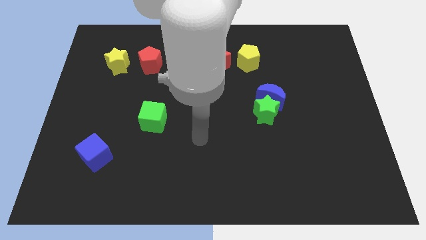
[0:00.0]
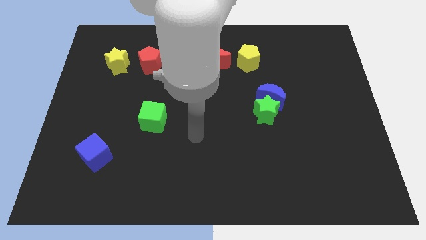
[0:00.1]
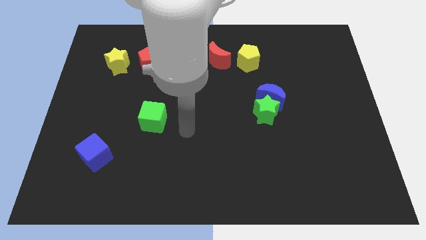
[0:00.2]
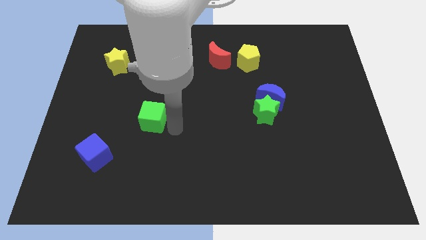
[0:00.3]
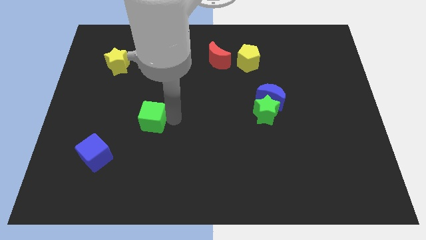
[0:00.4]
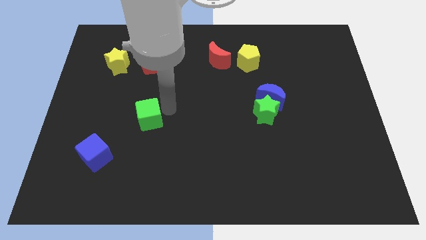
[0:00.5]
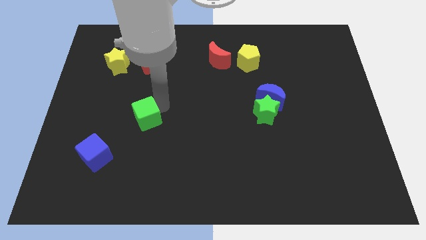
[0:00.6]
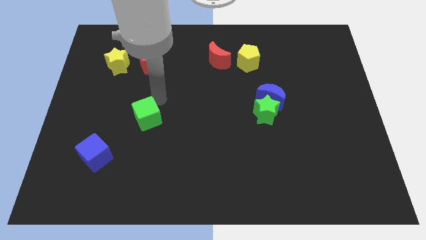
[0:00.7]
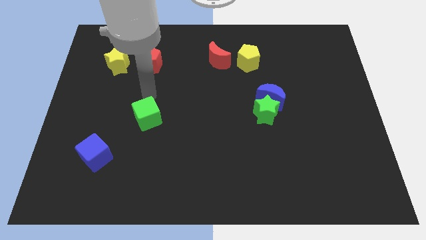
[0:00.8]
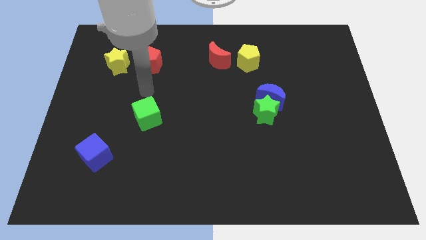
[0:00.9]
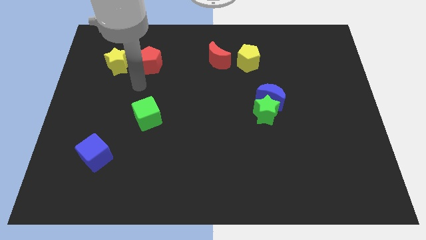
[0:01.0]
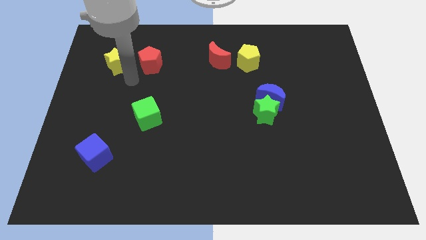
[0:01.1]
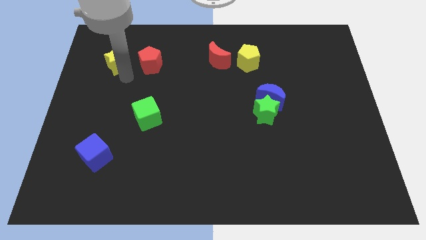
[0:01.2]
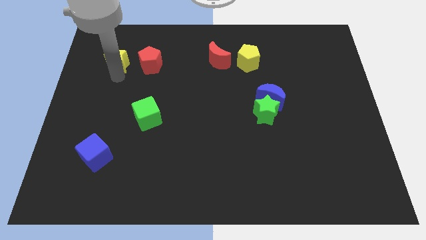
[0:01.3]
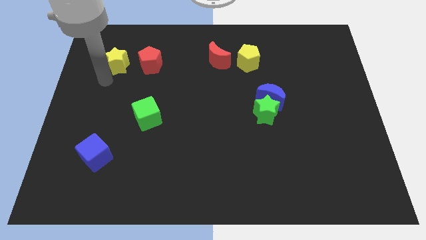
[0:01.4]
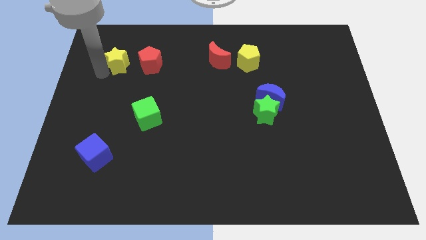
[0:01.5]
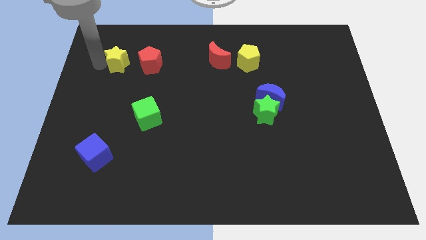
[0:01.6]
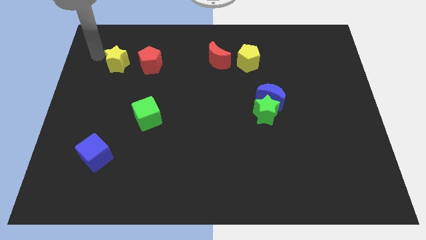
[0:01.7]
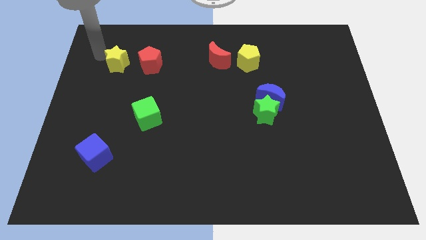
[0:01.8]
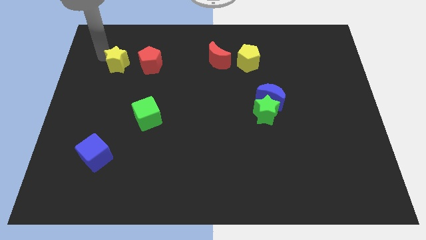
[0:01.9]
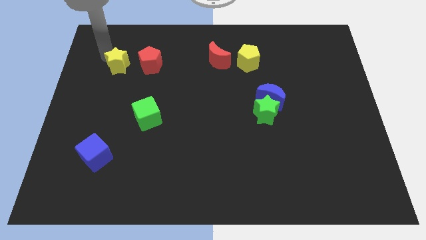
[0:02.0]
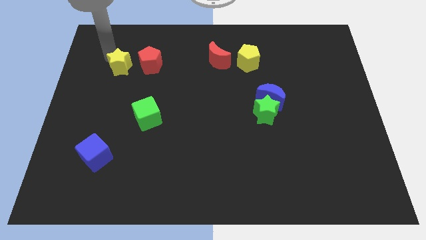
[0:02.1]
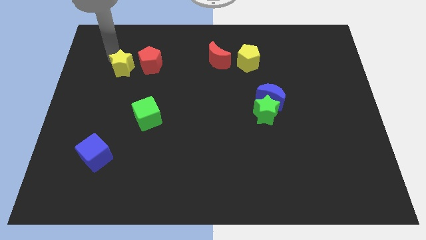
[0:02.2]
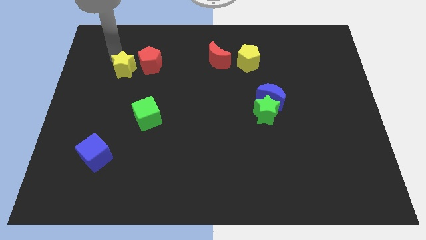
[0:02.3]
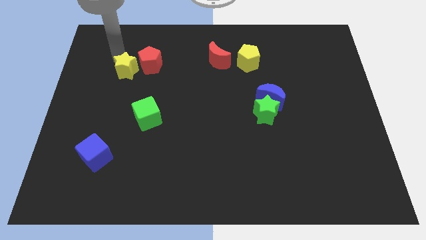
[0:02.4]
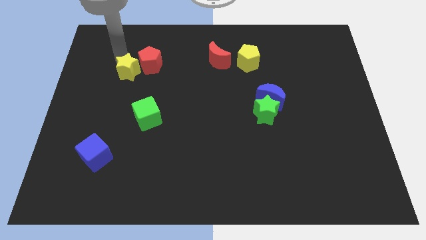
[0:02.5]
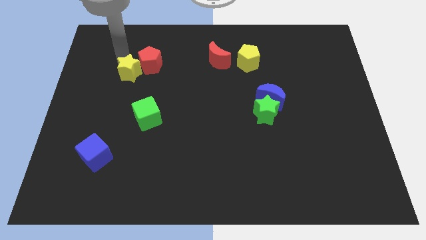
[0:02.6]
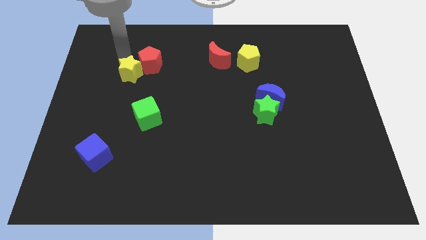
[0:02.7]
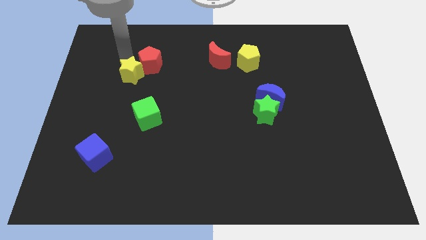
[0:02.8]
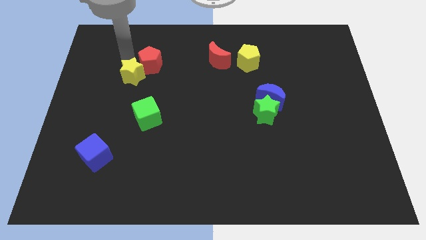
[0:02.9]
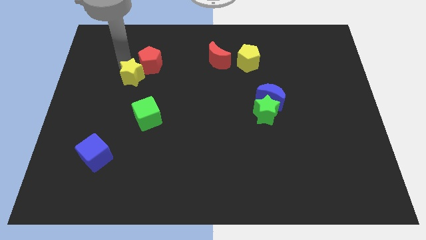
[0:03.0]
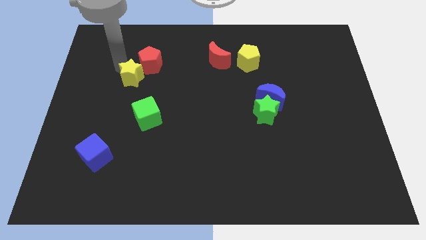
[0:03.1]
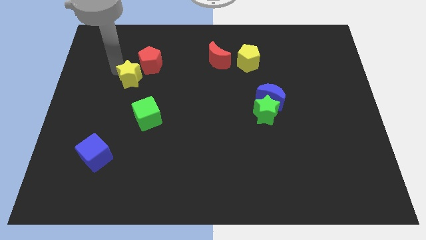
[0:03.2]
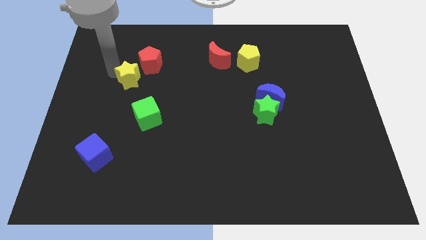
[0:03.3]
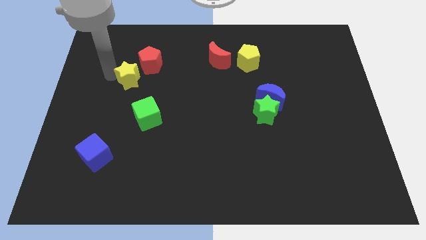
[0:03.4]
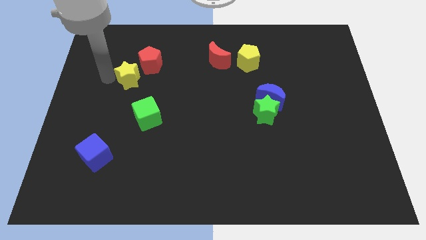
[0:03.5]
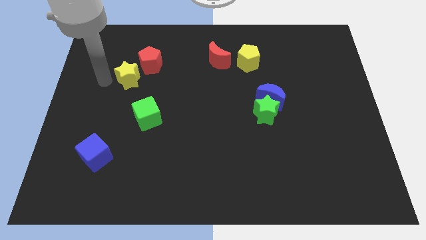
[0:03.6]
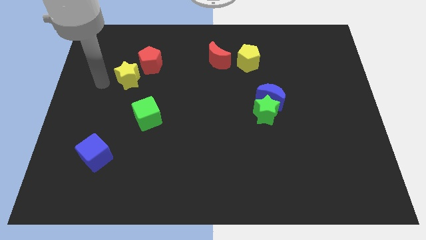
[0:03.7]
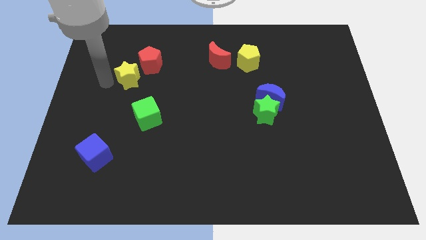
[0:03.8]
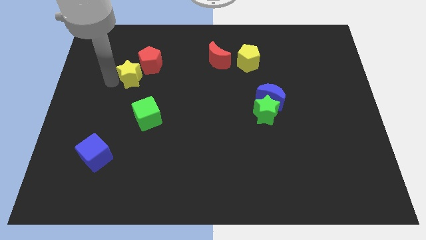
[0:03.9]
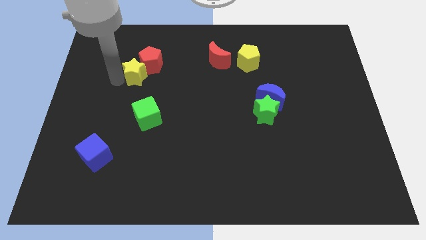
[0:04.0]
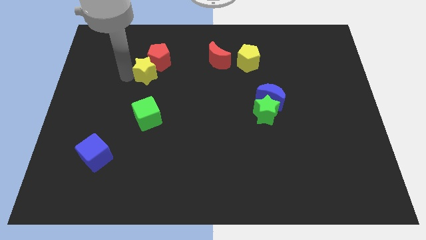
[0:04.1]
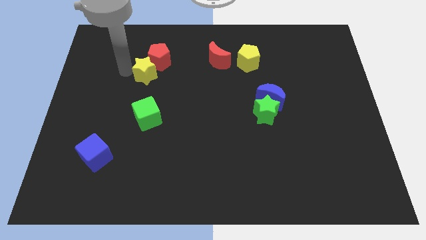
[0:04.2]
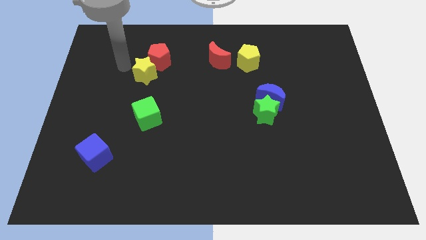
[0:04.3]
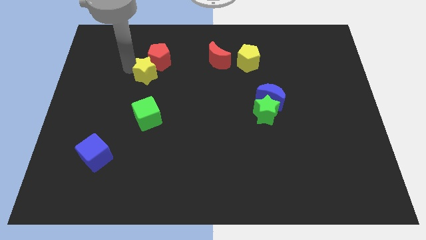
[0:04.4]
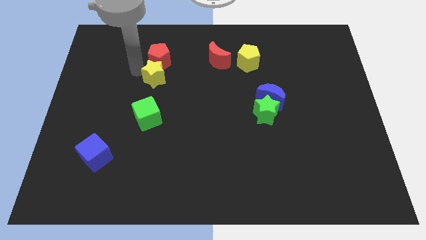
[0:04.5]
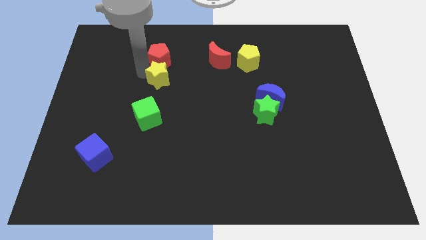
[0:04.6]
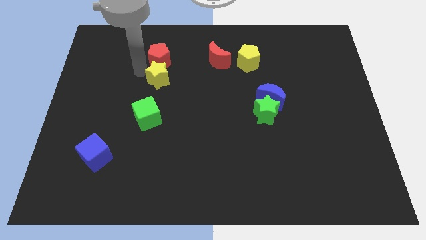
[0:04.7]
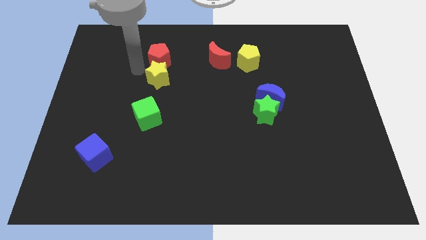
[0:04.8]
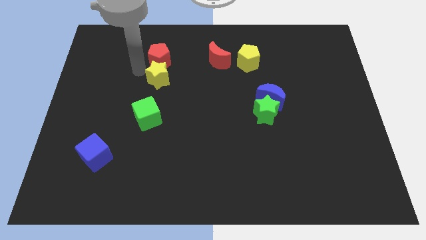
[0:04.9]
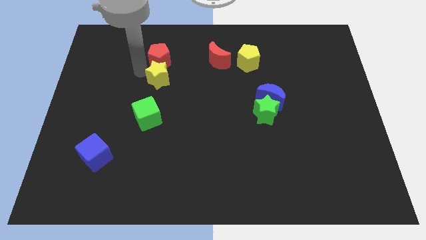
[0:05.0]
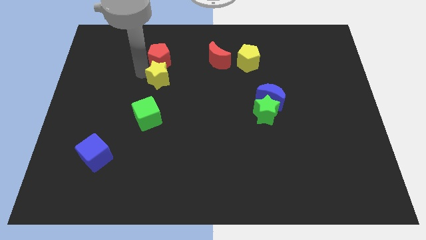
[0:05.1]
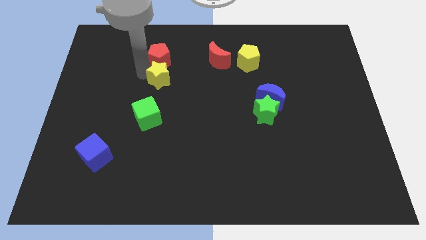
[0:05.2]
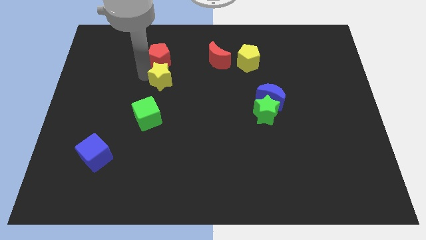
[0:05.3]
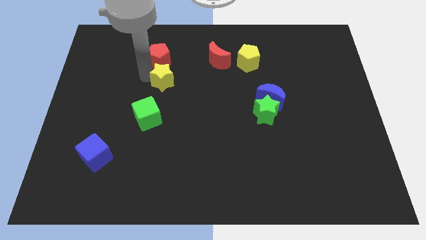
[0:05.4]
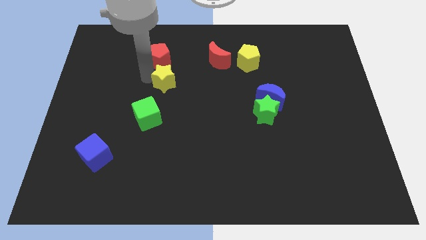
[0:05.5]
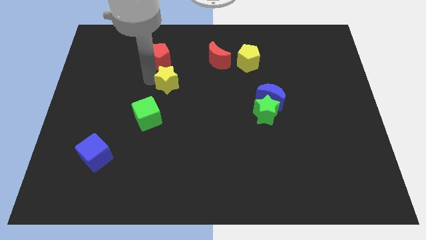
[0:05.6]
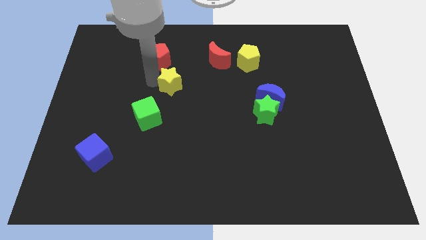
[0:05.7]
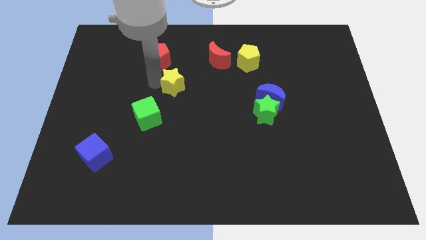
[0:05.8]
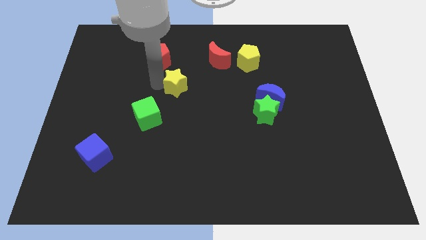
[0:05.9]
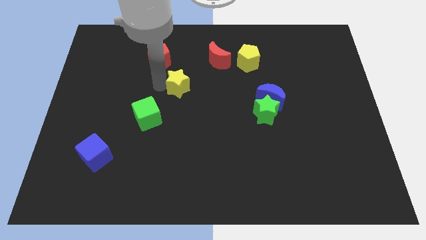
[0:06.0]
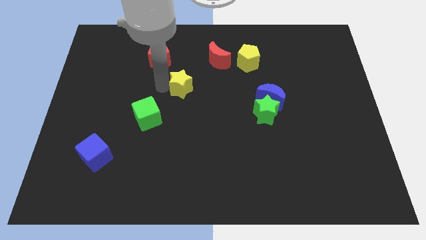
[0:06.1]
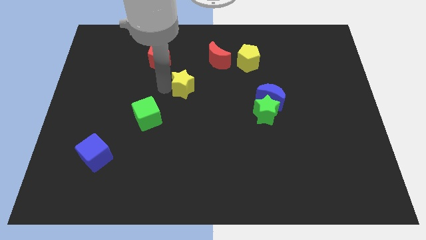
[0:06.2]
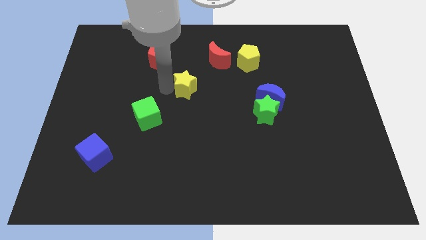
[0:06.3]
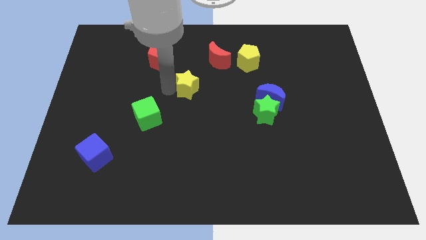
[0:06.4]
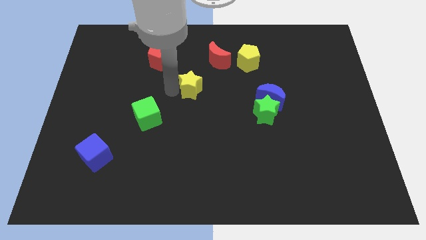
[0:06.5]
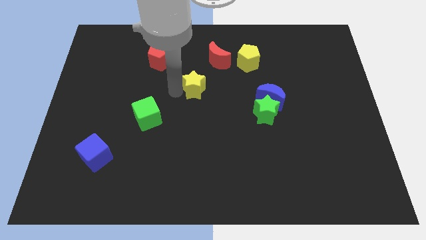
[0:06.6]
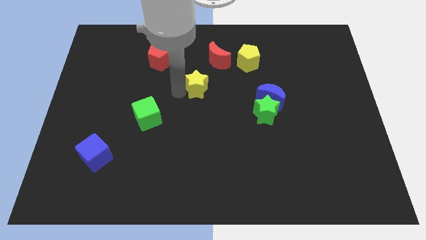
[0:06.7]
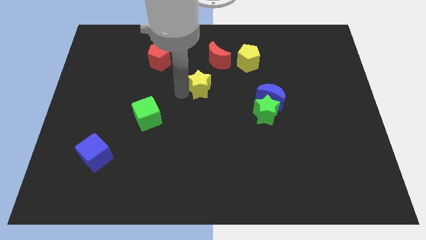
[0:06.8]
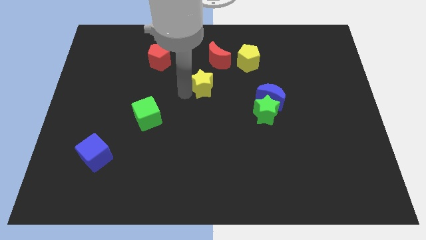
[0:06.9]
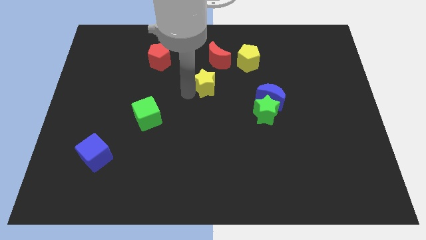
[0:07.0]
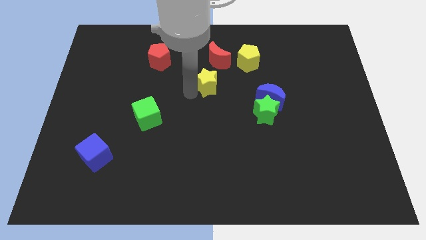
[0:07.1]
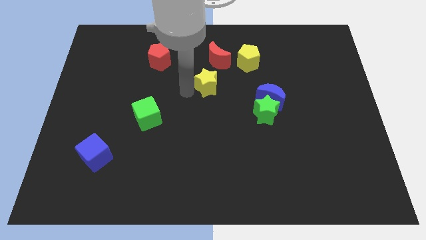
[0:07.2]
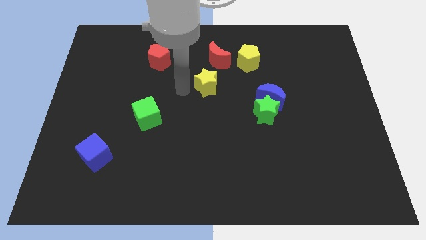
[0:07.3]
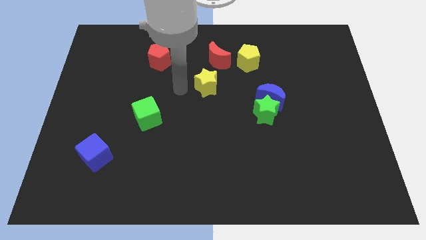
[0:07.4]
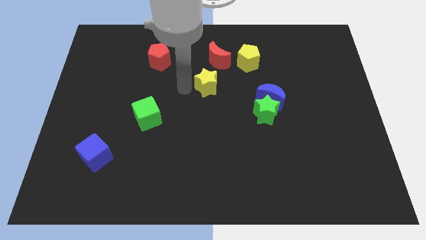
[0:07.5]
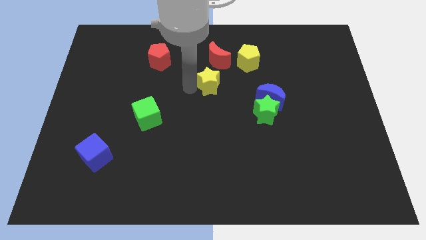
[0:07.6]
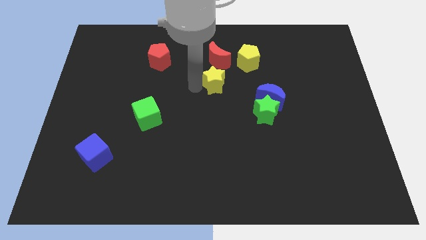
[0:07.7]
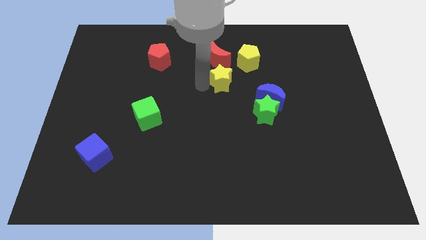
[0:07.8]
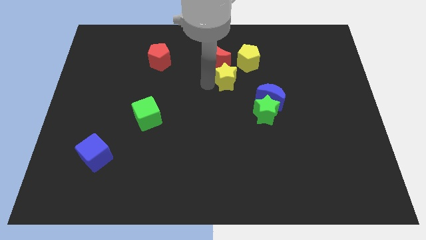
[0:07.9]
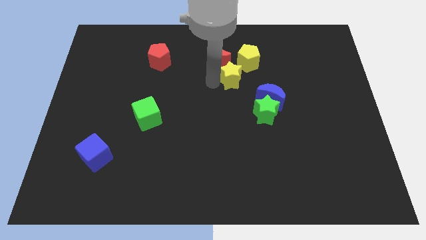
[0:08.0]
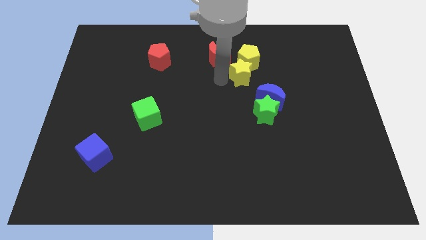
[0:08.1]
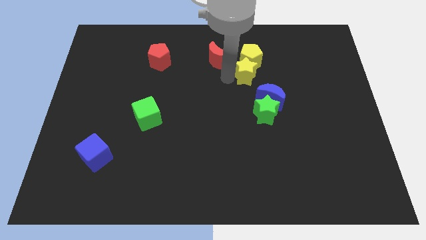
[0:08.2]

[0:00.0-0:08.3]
move the yellow star diagonally down and to the right of the yellow pentagon
